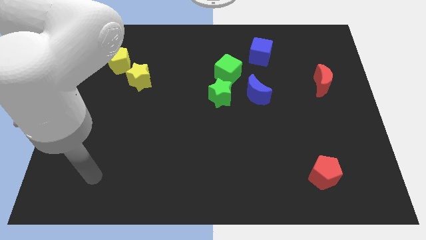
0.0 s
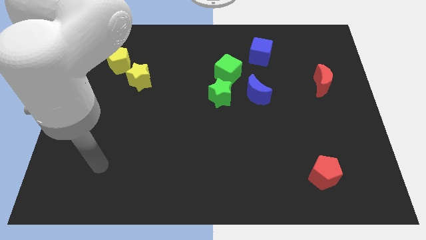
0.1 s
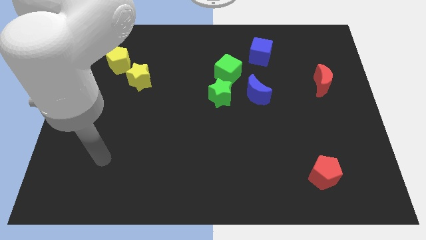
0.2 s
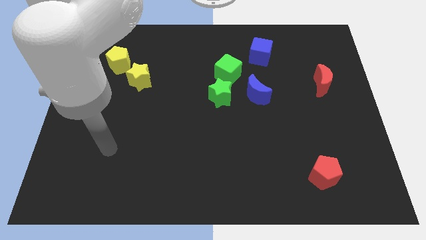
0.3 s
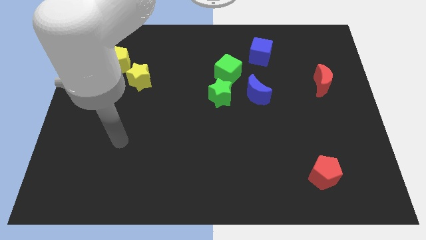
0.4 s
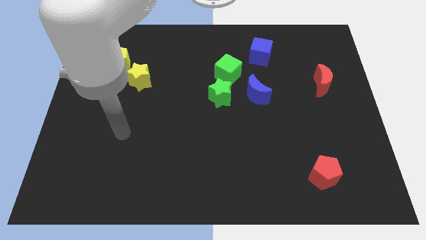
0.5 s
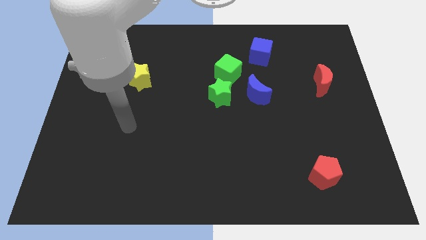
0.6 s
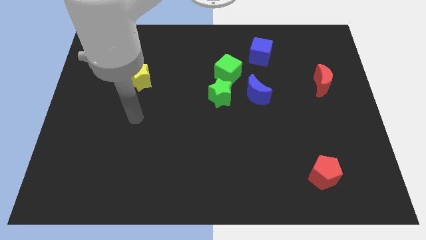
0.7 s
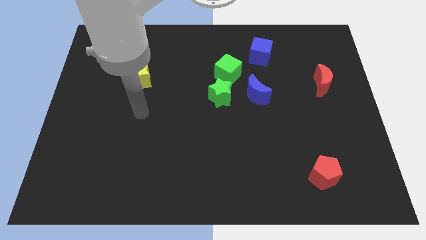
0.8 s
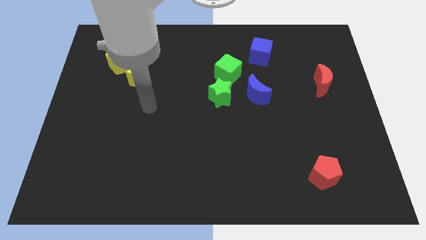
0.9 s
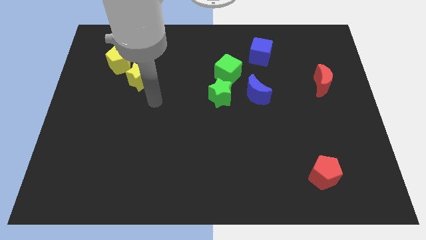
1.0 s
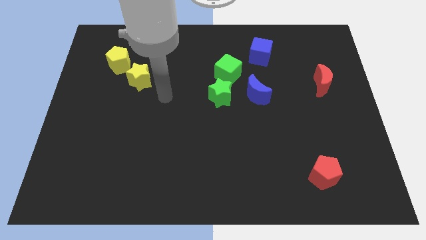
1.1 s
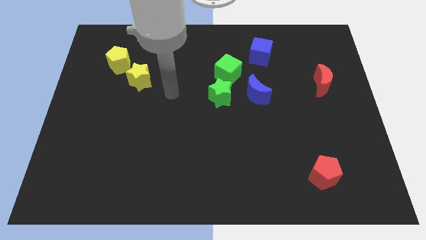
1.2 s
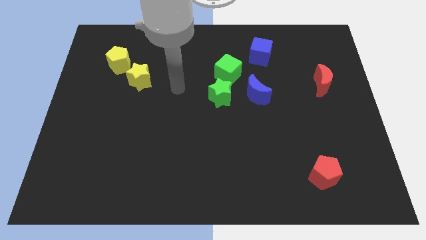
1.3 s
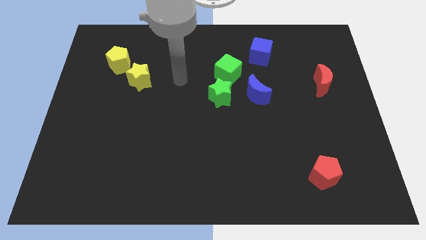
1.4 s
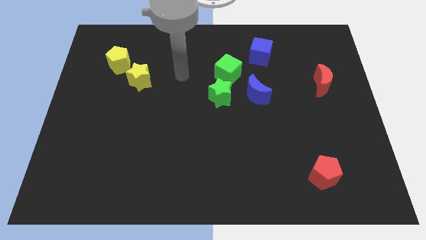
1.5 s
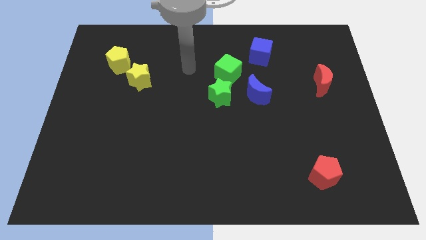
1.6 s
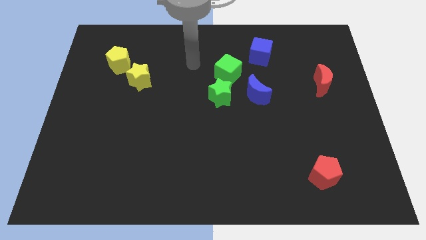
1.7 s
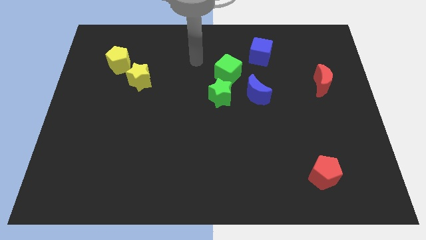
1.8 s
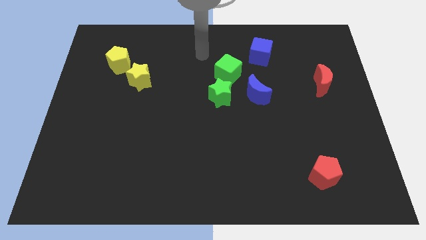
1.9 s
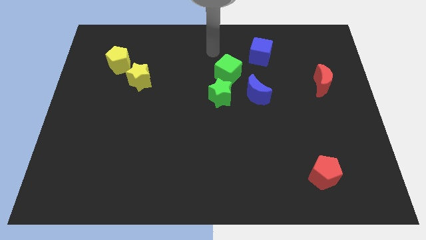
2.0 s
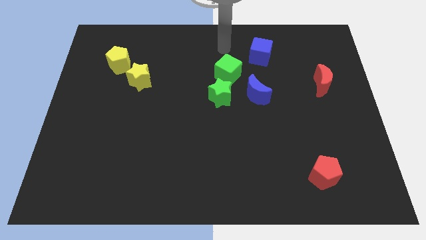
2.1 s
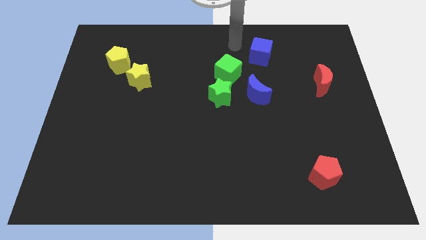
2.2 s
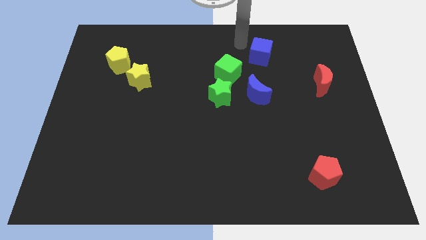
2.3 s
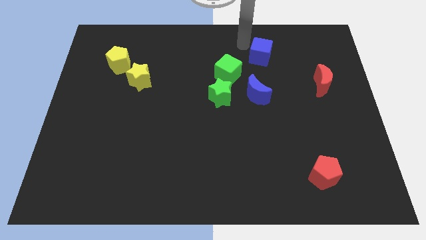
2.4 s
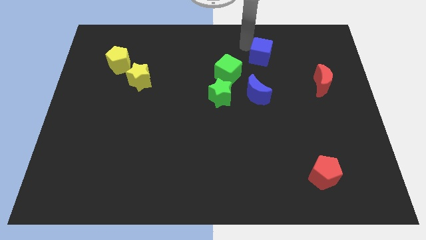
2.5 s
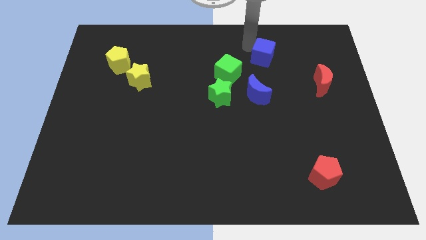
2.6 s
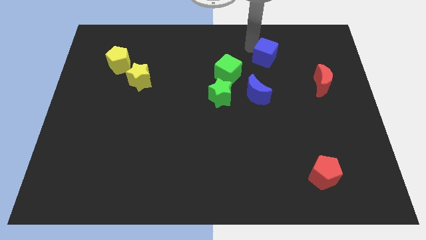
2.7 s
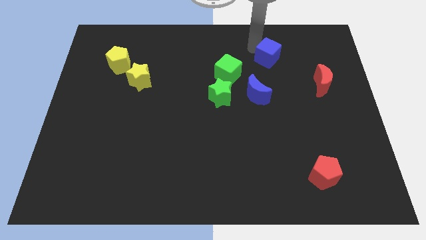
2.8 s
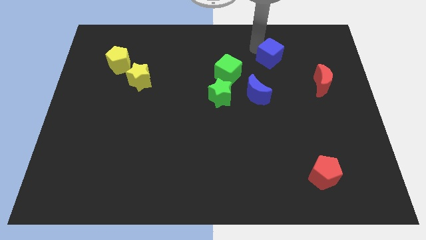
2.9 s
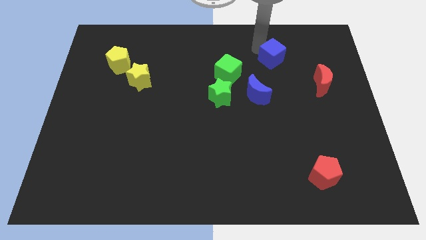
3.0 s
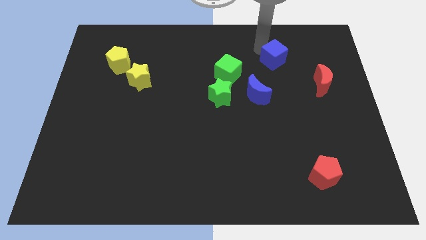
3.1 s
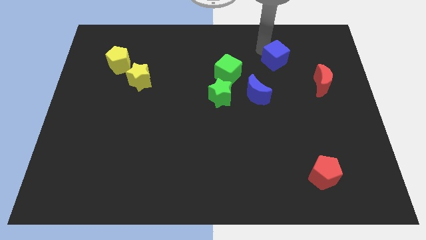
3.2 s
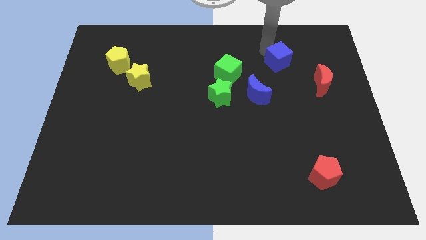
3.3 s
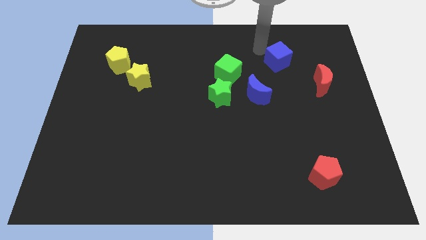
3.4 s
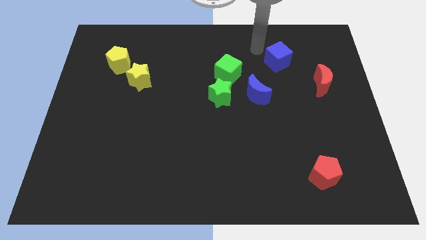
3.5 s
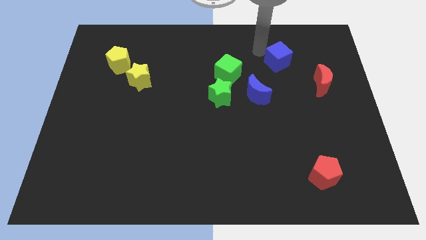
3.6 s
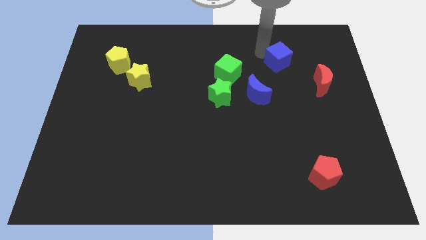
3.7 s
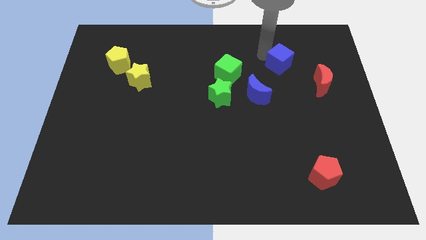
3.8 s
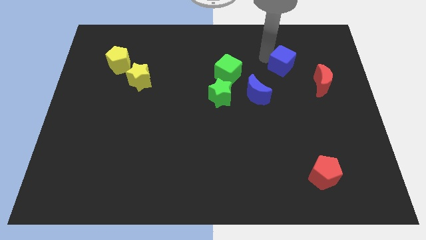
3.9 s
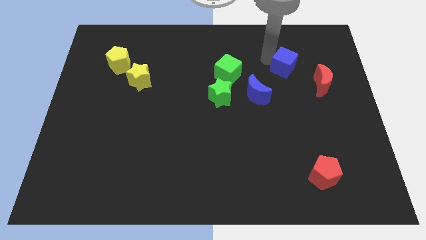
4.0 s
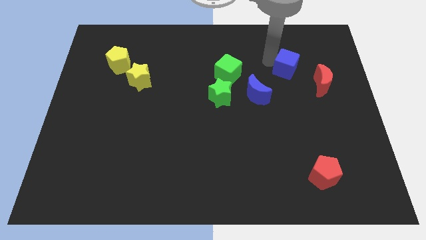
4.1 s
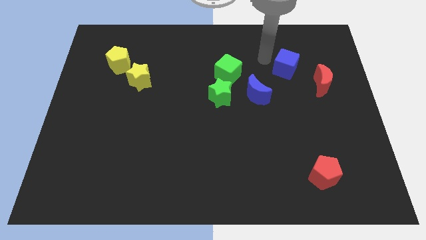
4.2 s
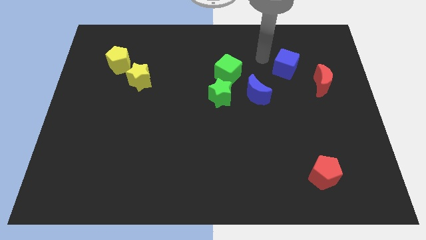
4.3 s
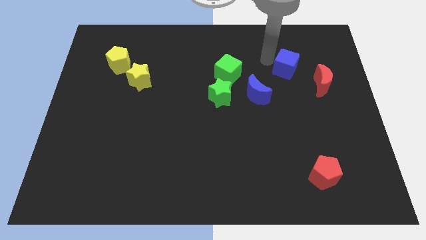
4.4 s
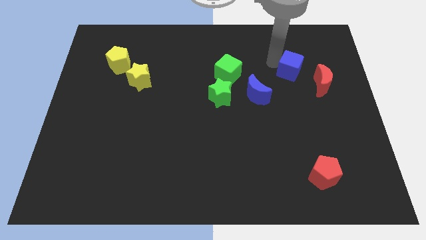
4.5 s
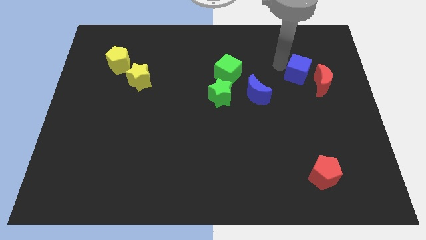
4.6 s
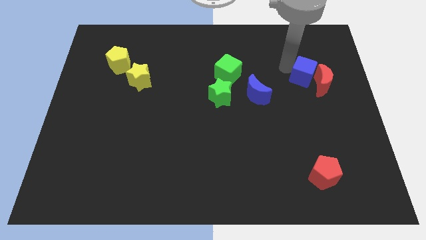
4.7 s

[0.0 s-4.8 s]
push the blue cube close to the red moon

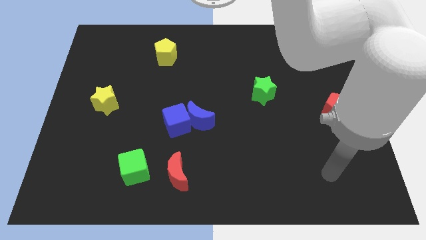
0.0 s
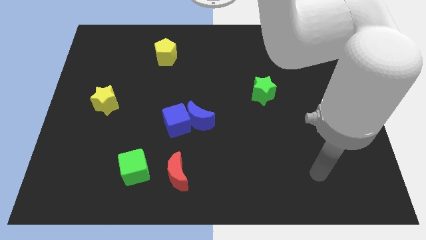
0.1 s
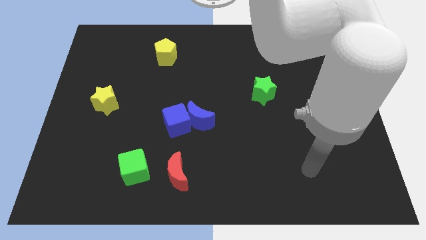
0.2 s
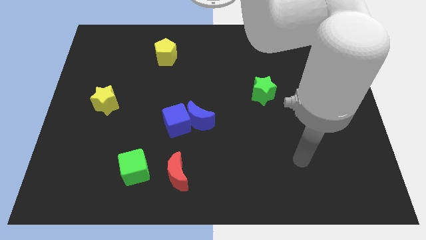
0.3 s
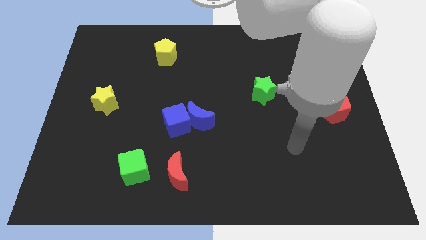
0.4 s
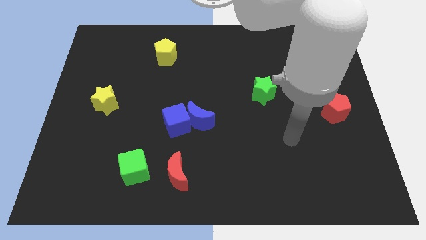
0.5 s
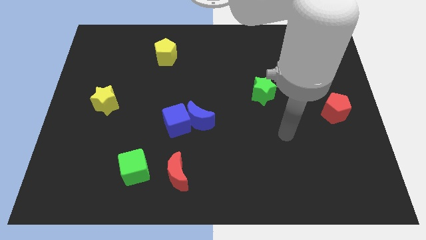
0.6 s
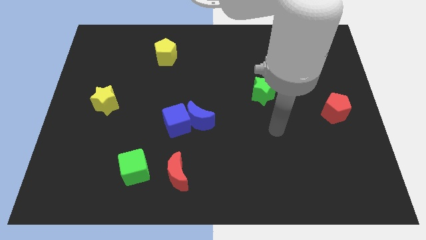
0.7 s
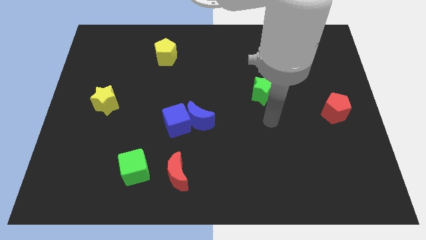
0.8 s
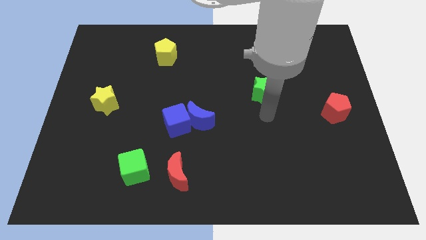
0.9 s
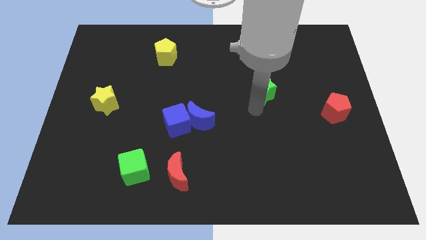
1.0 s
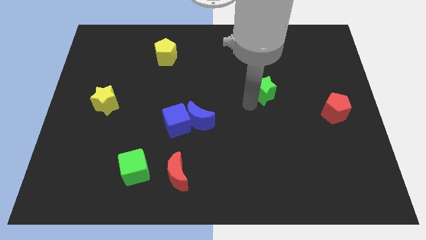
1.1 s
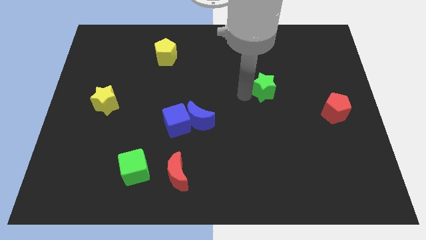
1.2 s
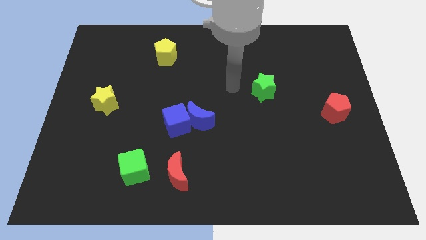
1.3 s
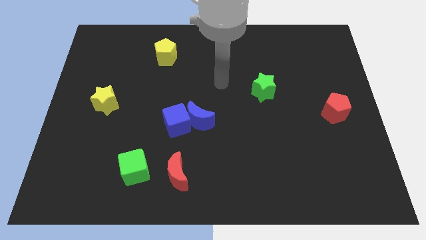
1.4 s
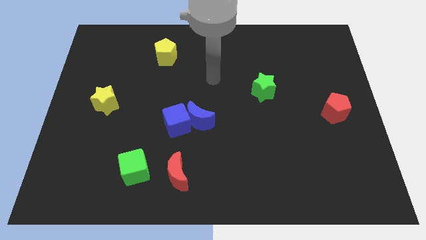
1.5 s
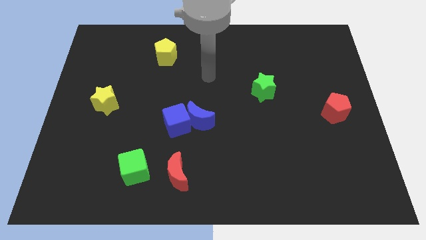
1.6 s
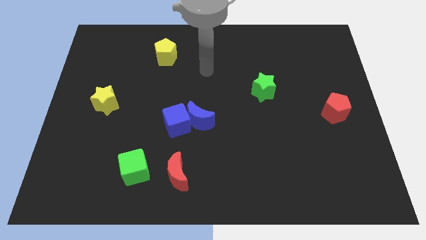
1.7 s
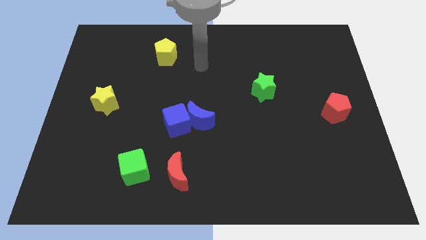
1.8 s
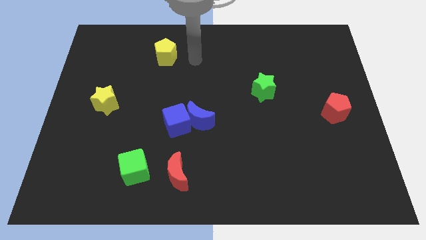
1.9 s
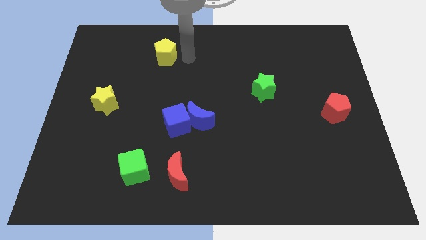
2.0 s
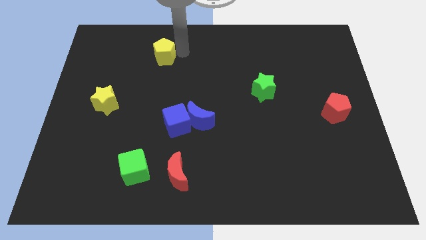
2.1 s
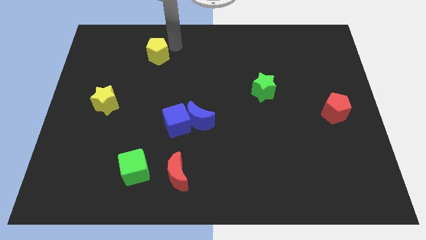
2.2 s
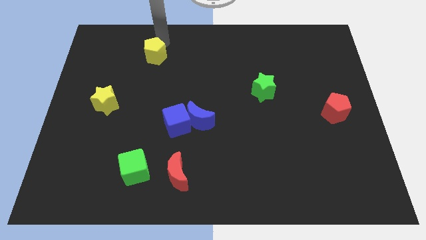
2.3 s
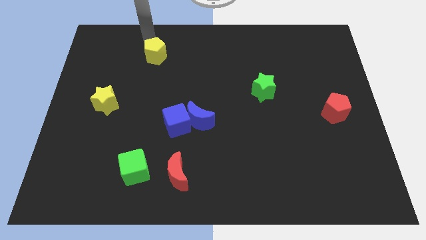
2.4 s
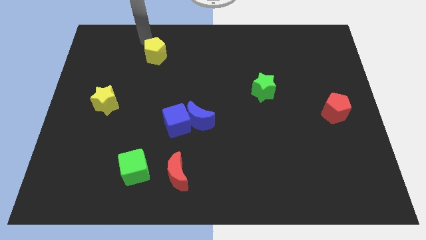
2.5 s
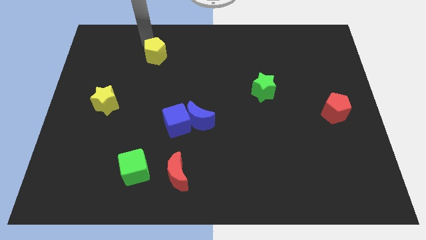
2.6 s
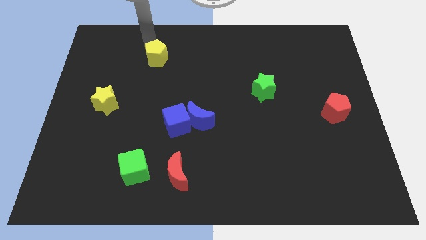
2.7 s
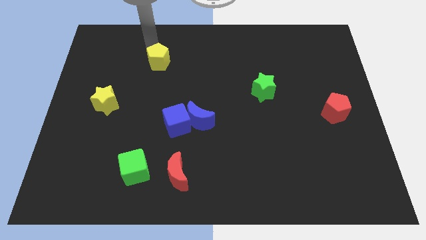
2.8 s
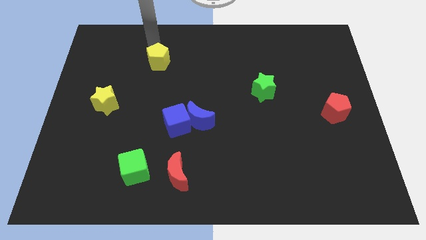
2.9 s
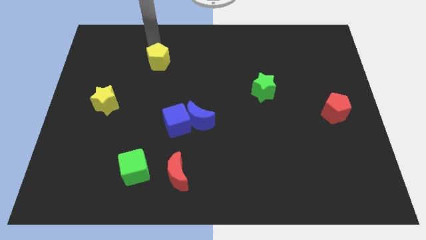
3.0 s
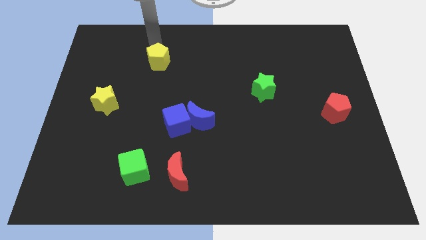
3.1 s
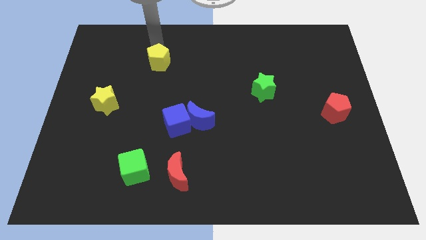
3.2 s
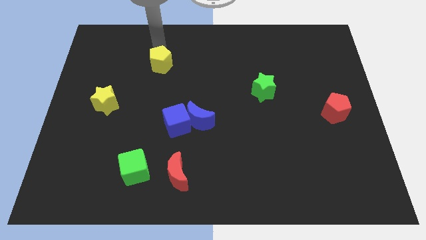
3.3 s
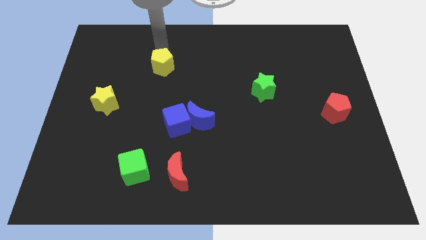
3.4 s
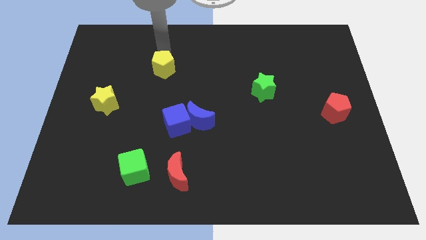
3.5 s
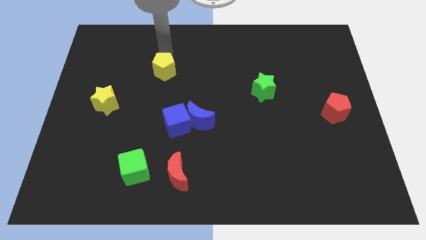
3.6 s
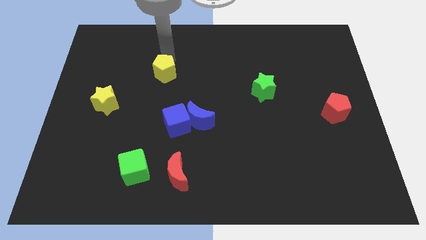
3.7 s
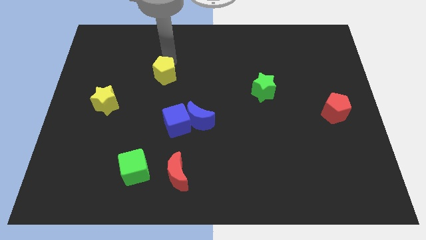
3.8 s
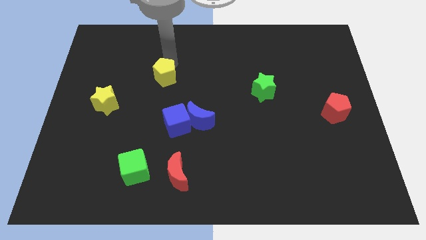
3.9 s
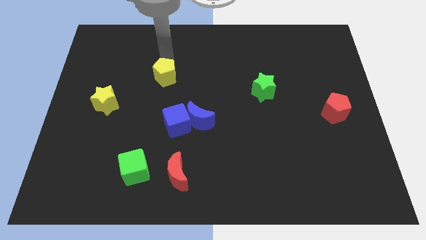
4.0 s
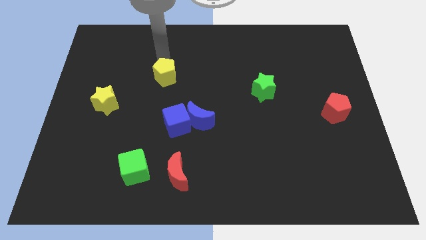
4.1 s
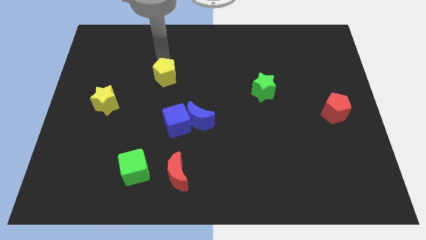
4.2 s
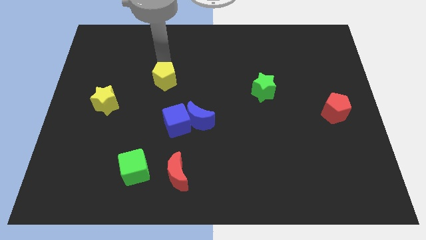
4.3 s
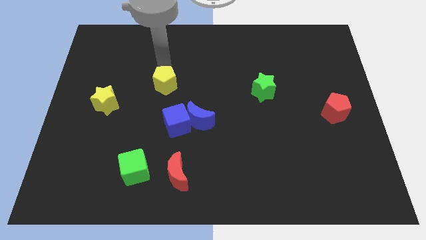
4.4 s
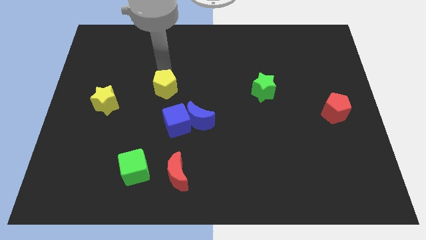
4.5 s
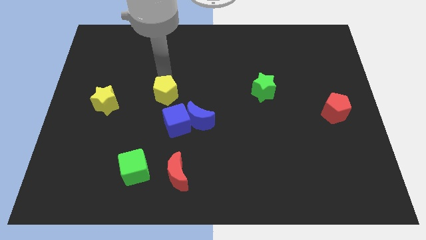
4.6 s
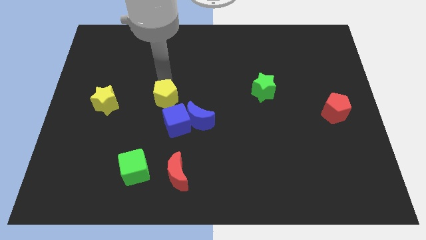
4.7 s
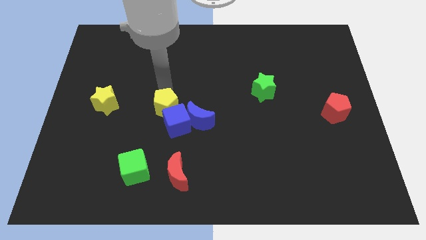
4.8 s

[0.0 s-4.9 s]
put the yellow pentagon towards the blue cube
